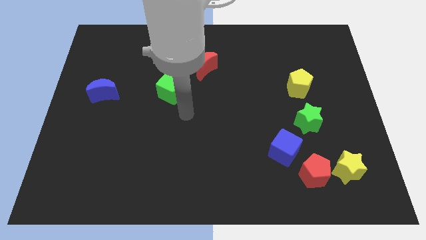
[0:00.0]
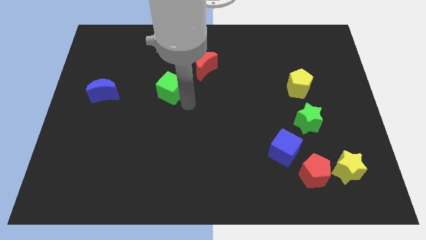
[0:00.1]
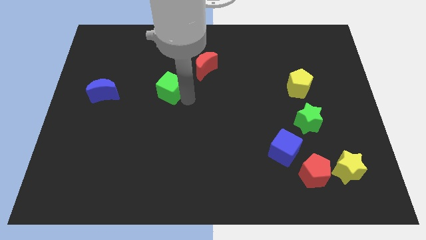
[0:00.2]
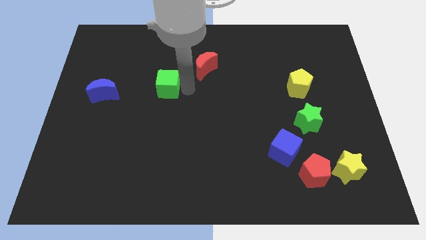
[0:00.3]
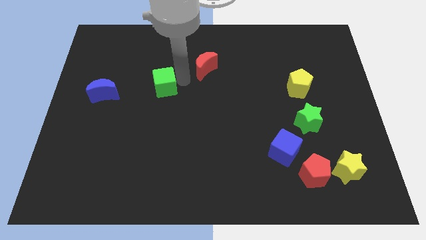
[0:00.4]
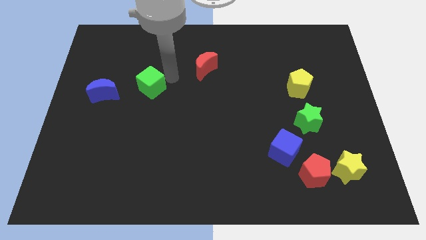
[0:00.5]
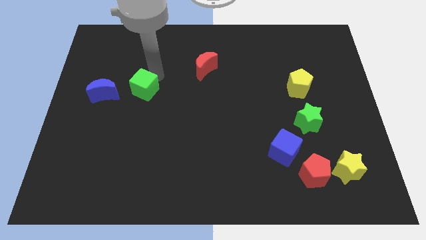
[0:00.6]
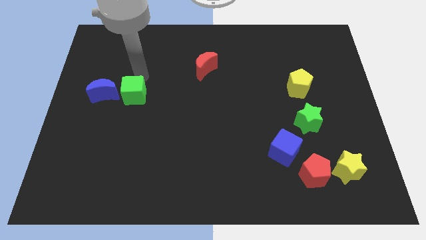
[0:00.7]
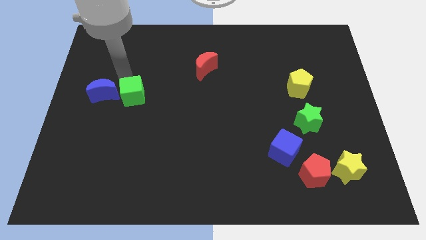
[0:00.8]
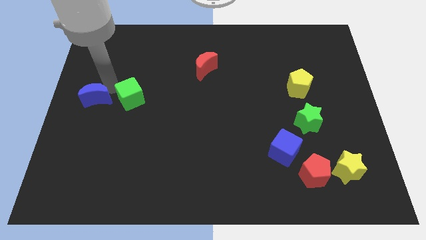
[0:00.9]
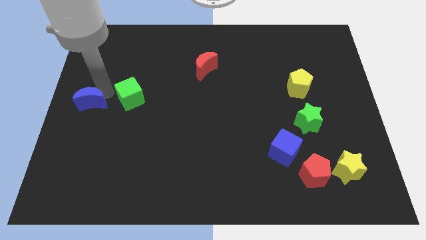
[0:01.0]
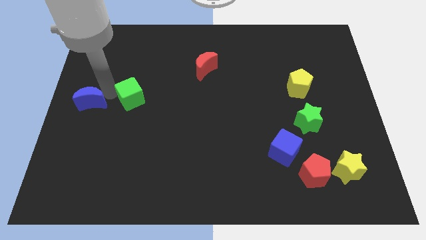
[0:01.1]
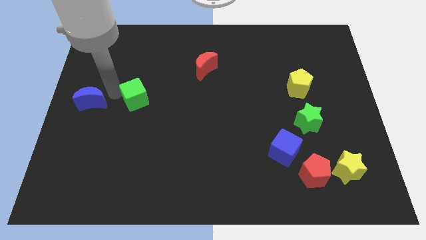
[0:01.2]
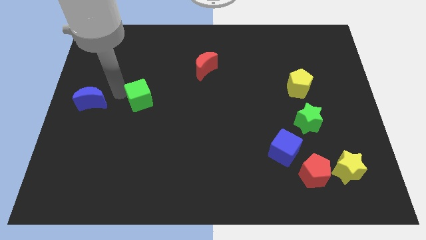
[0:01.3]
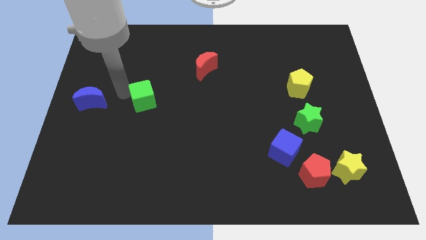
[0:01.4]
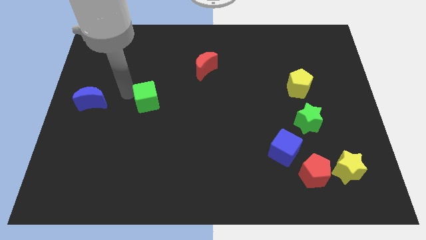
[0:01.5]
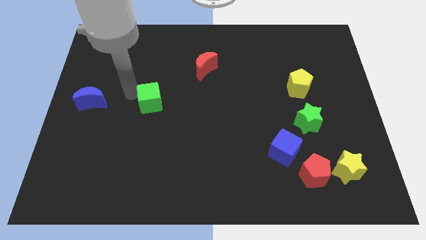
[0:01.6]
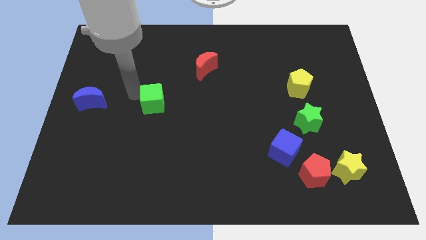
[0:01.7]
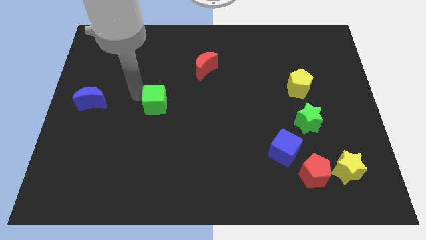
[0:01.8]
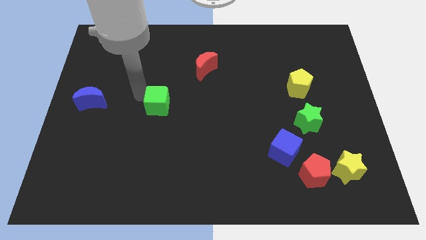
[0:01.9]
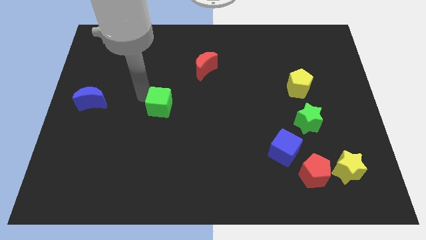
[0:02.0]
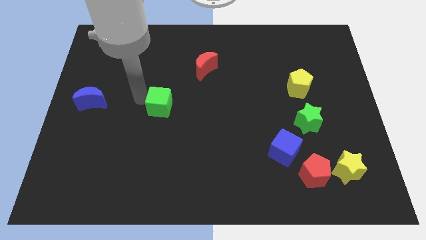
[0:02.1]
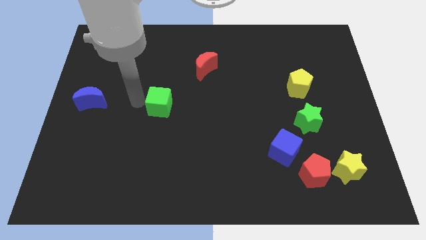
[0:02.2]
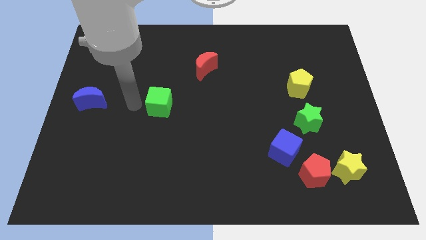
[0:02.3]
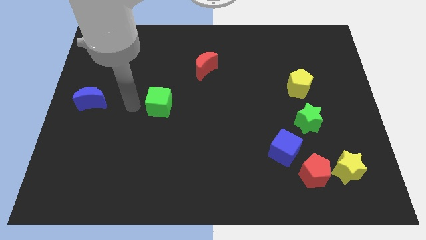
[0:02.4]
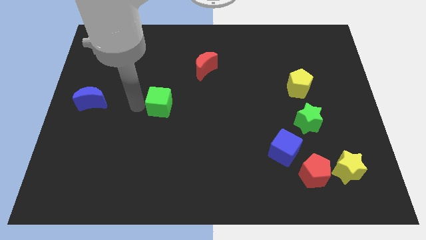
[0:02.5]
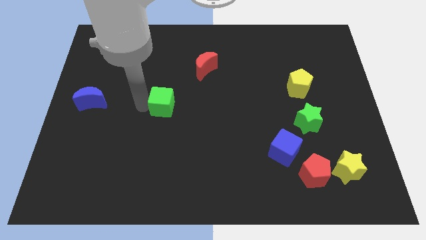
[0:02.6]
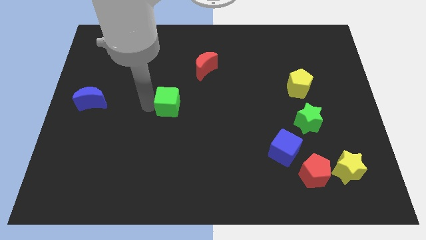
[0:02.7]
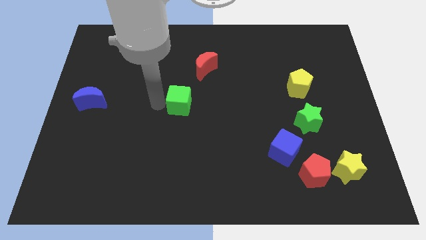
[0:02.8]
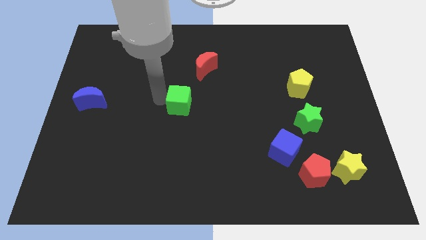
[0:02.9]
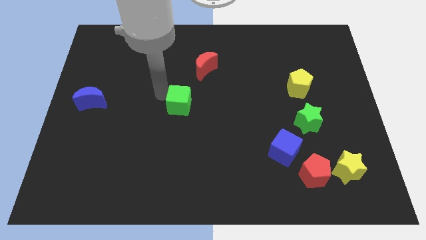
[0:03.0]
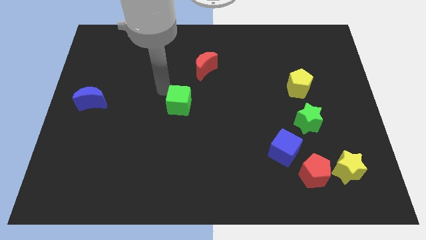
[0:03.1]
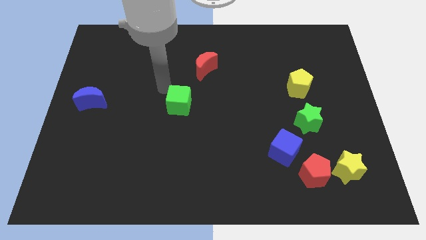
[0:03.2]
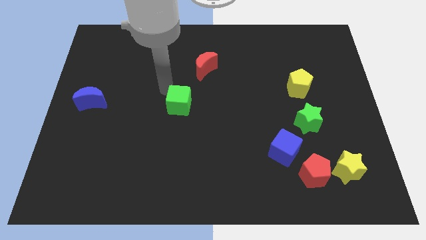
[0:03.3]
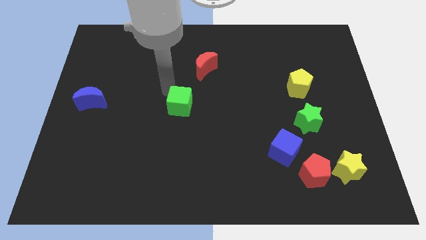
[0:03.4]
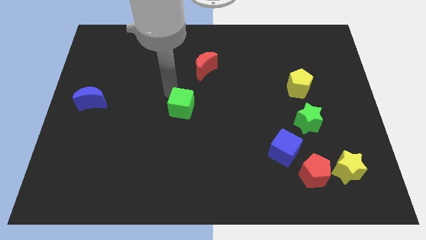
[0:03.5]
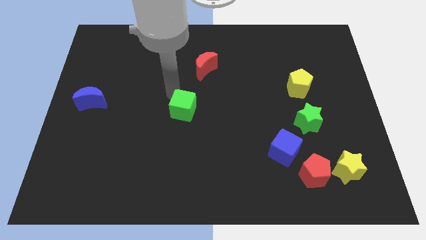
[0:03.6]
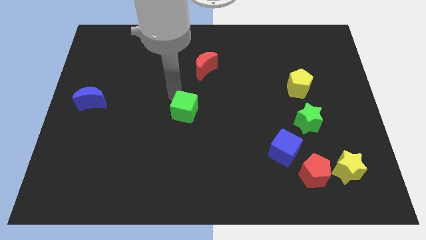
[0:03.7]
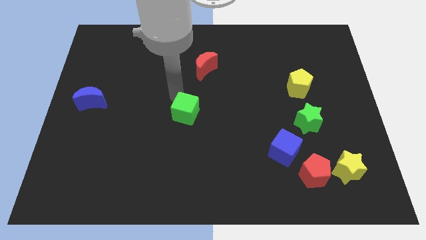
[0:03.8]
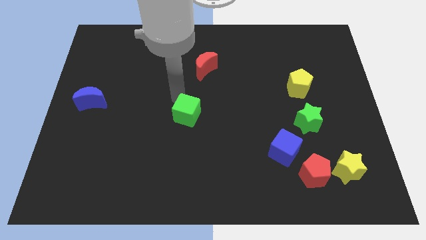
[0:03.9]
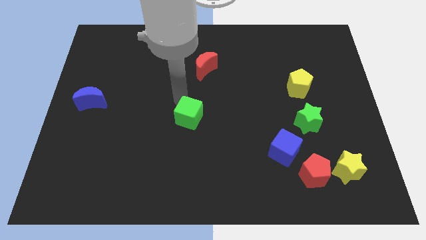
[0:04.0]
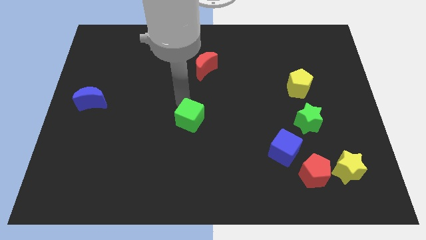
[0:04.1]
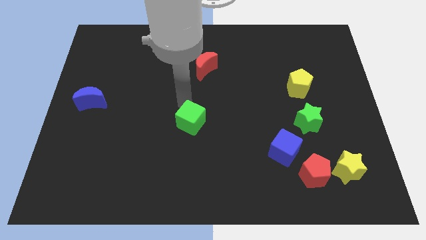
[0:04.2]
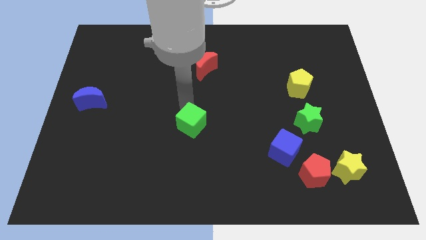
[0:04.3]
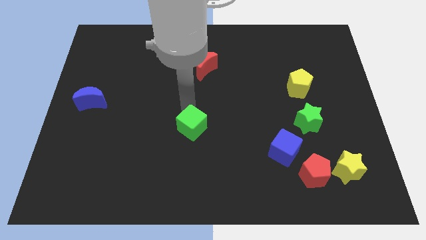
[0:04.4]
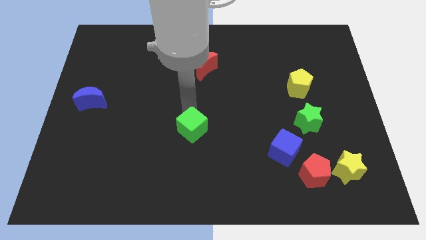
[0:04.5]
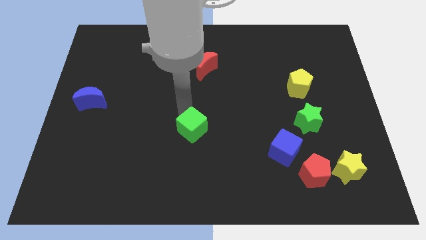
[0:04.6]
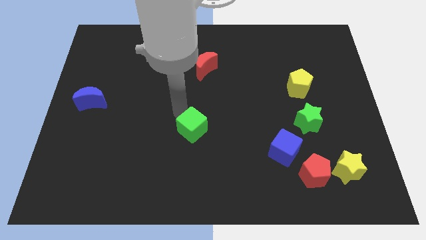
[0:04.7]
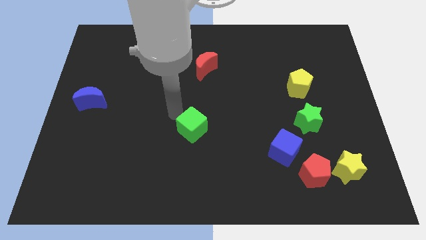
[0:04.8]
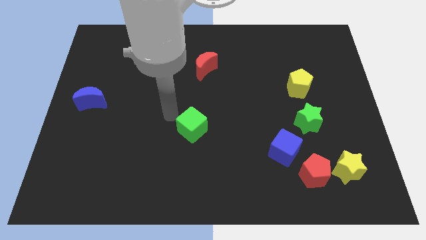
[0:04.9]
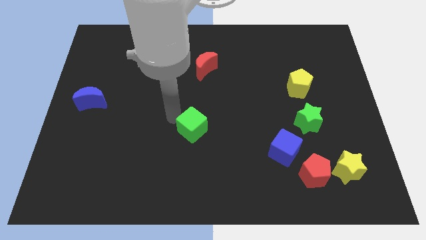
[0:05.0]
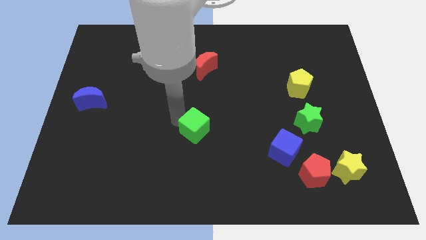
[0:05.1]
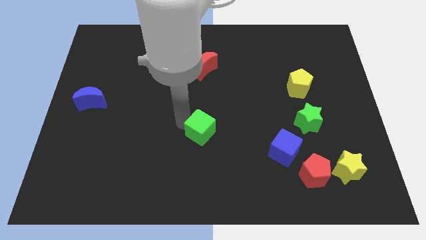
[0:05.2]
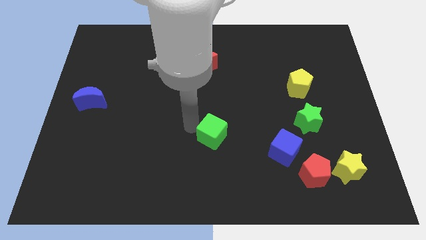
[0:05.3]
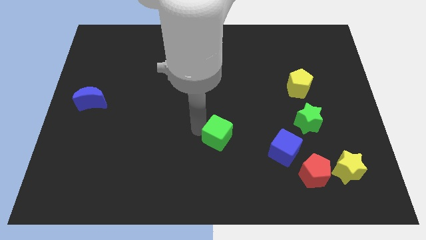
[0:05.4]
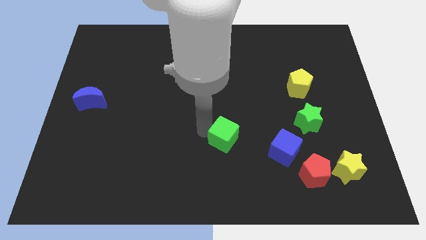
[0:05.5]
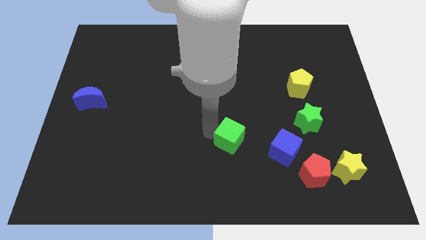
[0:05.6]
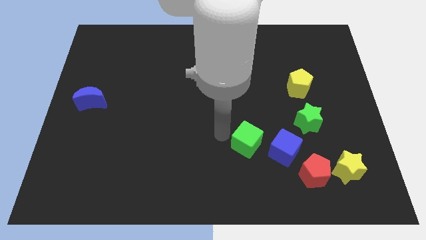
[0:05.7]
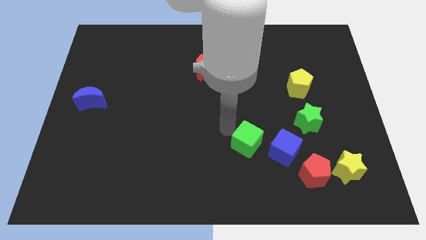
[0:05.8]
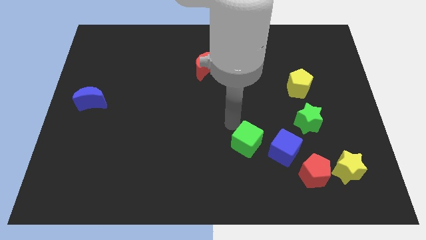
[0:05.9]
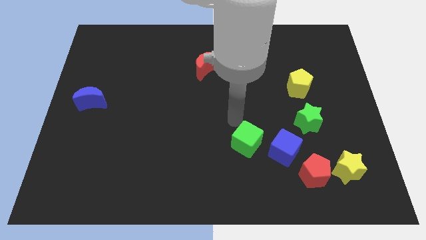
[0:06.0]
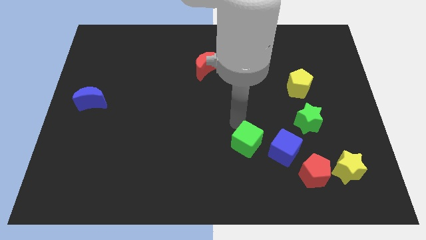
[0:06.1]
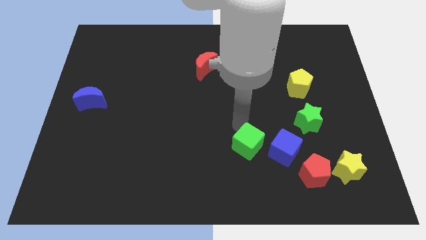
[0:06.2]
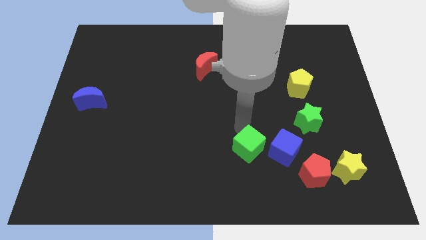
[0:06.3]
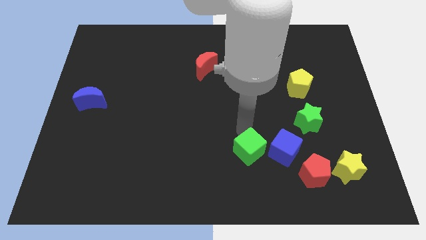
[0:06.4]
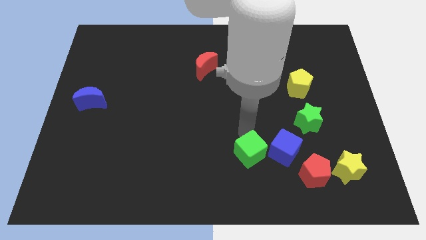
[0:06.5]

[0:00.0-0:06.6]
put the green cube to the bottom left of the blue cube

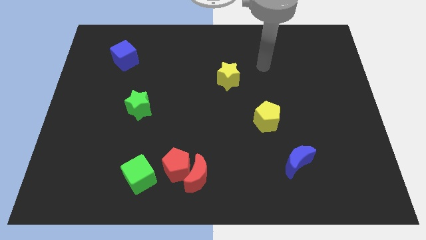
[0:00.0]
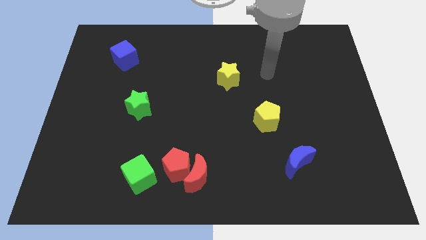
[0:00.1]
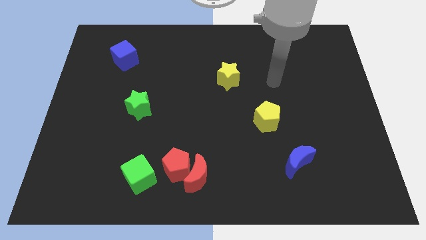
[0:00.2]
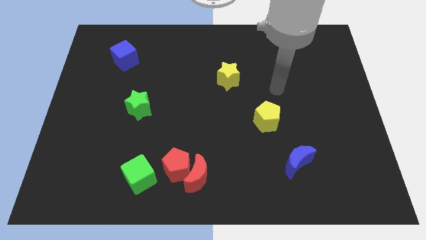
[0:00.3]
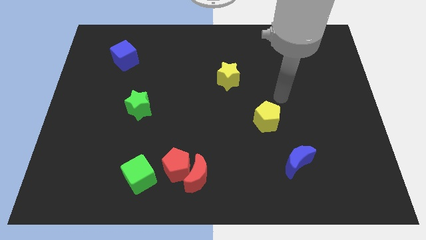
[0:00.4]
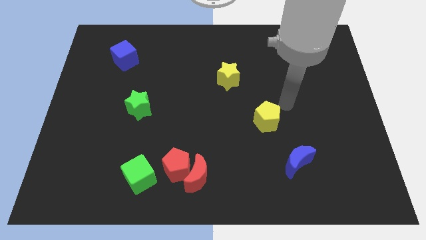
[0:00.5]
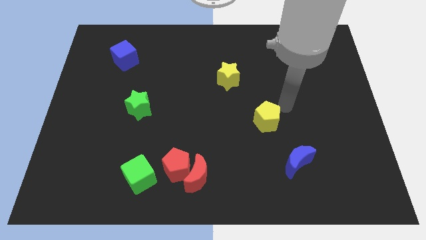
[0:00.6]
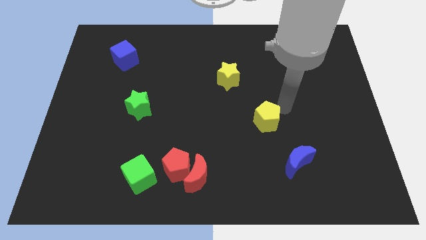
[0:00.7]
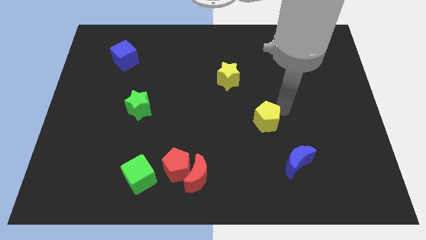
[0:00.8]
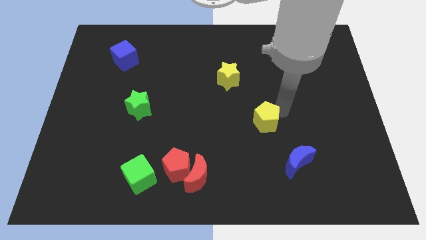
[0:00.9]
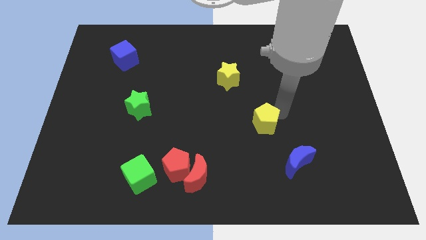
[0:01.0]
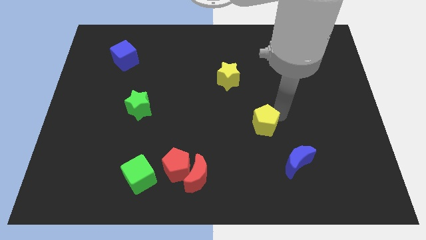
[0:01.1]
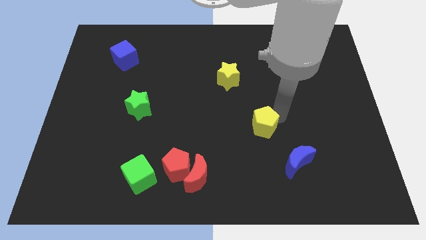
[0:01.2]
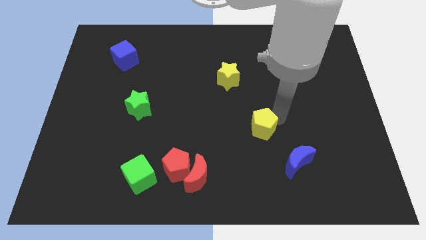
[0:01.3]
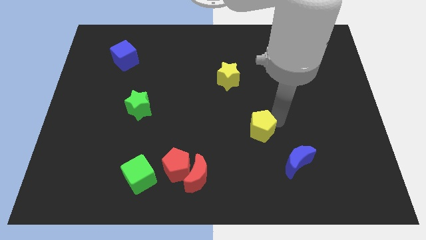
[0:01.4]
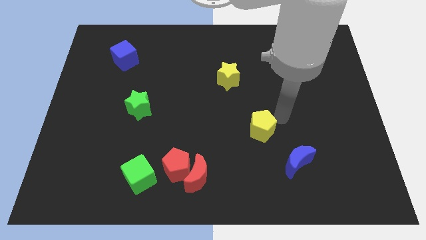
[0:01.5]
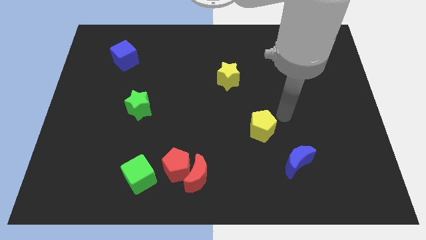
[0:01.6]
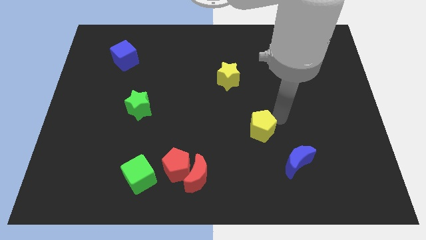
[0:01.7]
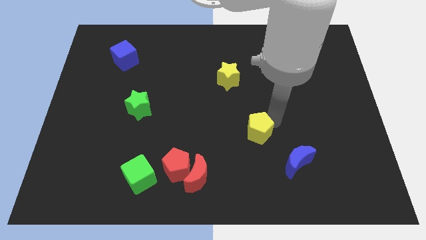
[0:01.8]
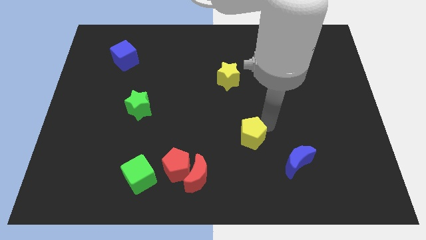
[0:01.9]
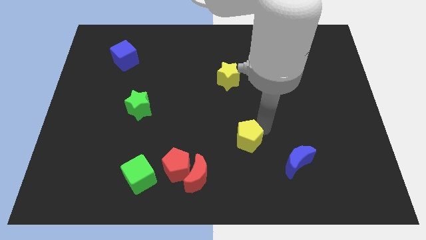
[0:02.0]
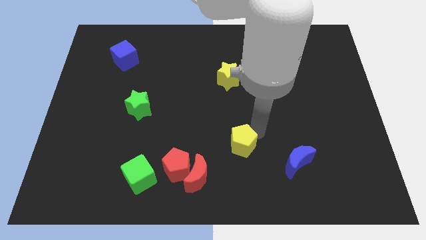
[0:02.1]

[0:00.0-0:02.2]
move the yellow pentagon to the top right side of the red moon
